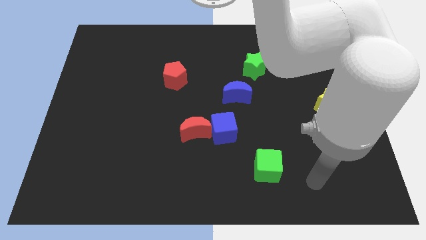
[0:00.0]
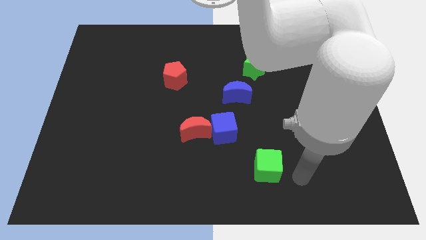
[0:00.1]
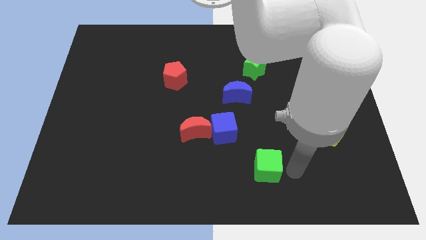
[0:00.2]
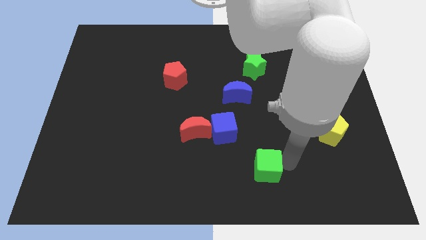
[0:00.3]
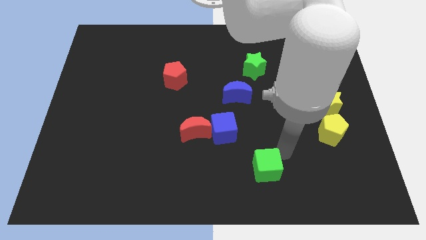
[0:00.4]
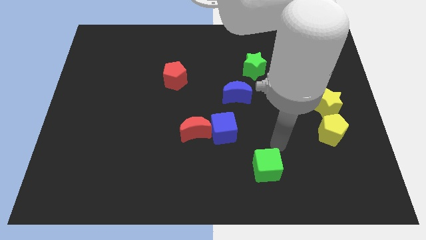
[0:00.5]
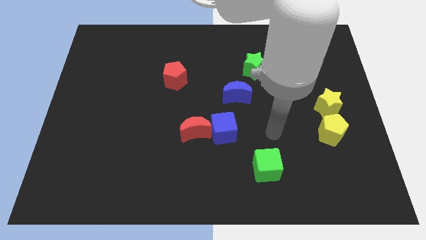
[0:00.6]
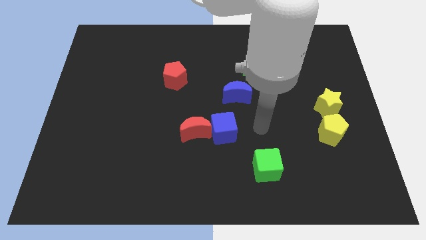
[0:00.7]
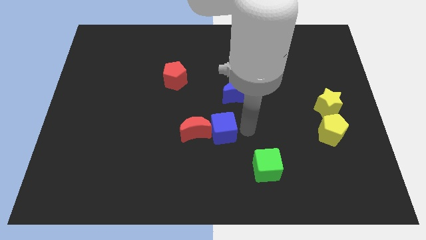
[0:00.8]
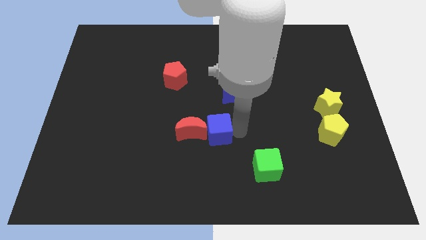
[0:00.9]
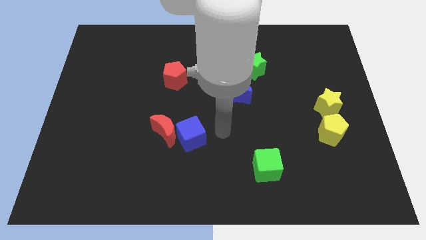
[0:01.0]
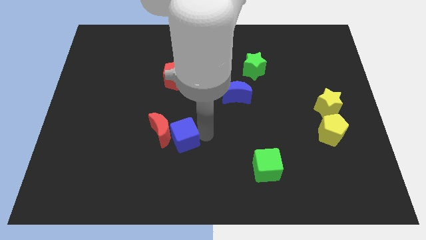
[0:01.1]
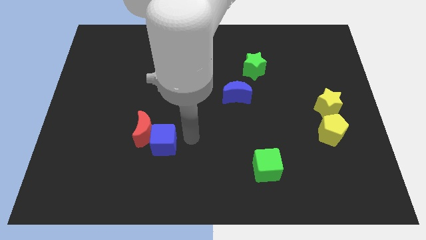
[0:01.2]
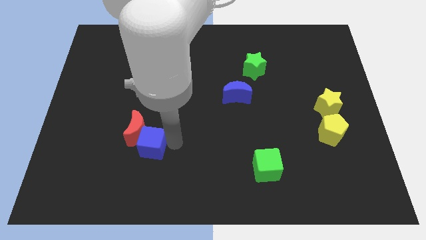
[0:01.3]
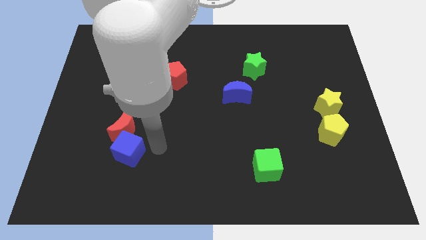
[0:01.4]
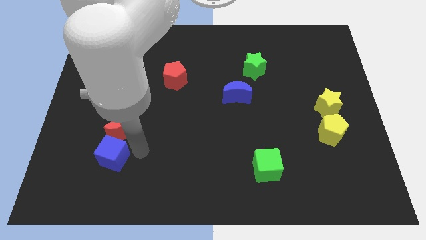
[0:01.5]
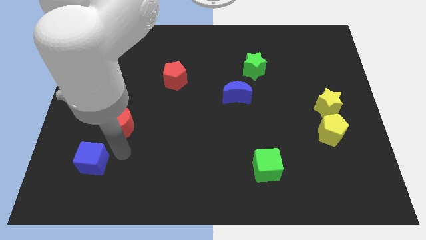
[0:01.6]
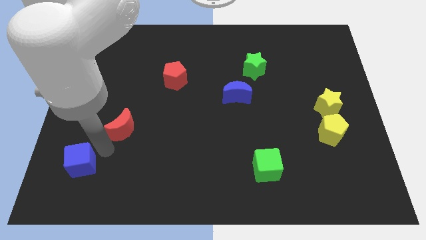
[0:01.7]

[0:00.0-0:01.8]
move the red moon away from the blue cube

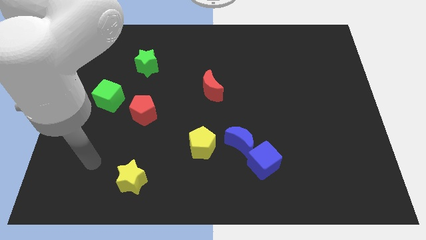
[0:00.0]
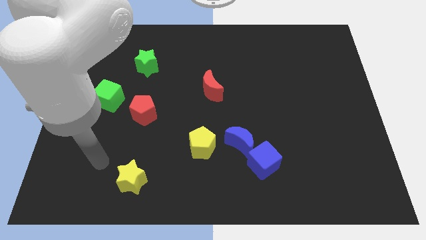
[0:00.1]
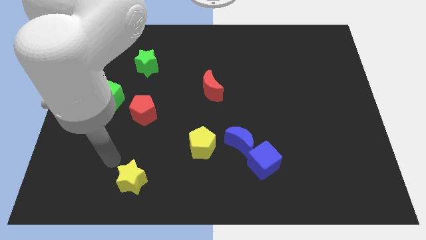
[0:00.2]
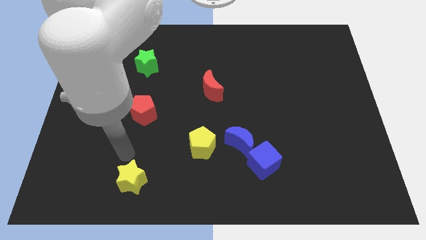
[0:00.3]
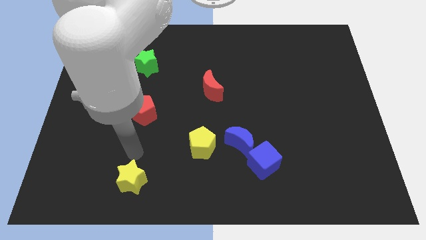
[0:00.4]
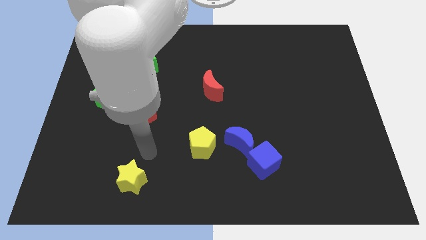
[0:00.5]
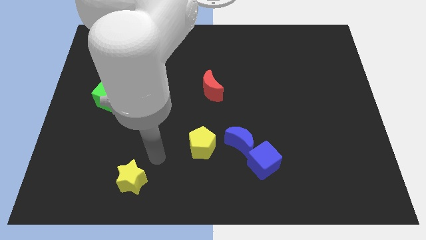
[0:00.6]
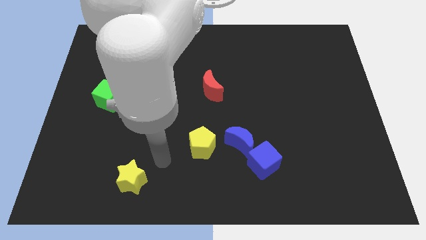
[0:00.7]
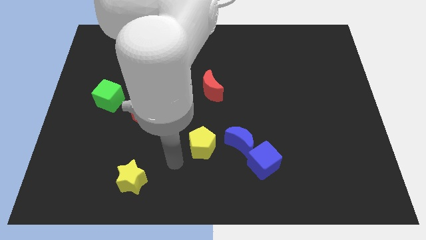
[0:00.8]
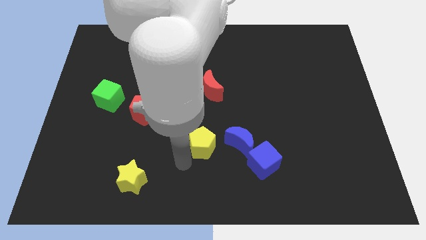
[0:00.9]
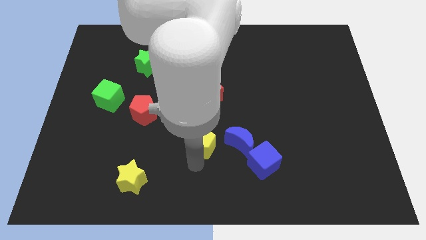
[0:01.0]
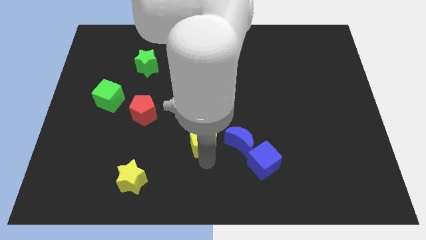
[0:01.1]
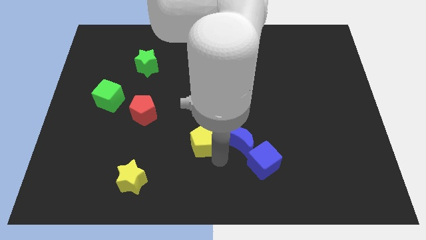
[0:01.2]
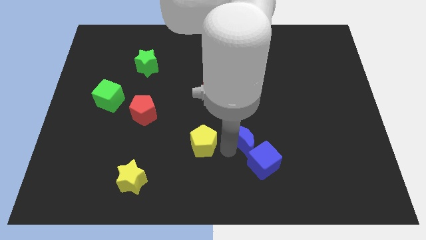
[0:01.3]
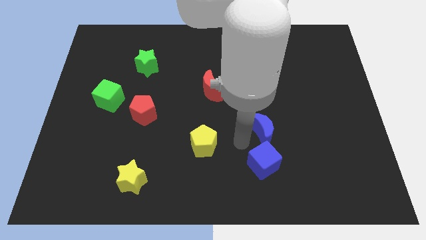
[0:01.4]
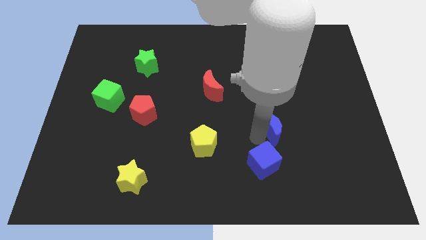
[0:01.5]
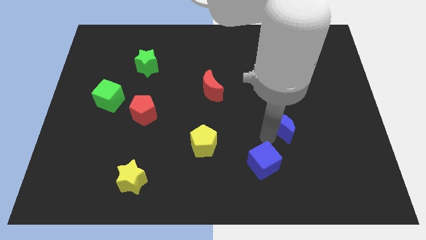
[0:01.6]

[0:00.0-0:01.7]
pull the blue cube apart from the blue moon

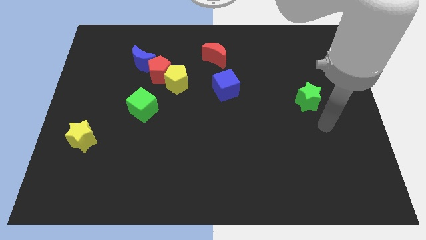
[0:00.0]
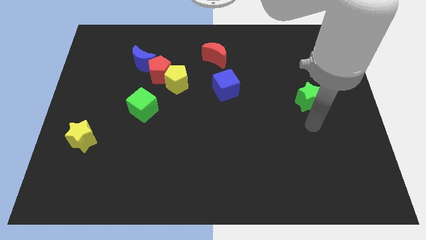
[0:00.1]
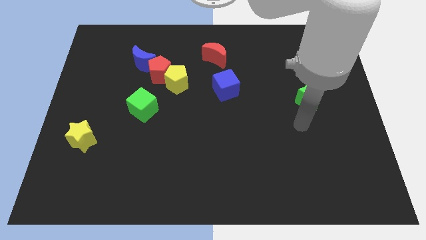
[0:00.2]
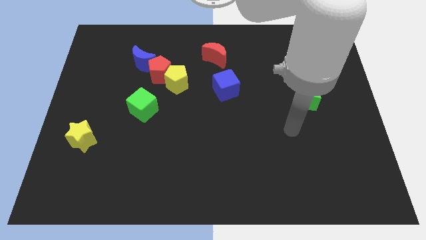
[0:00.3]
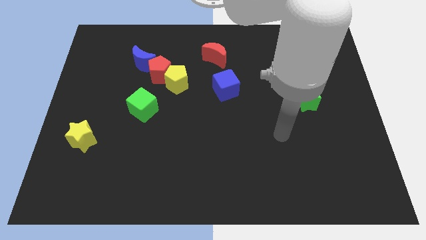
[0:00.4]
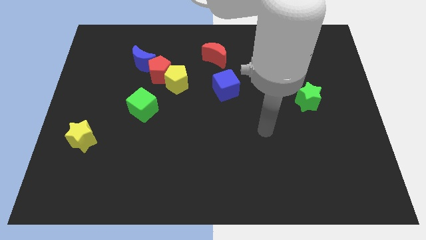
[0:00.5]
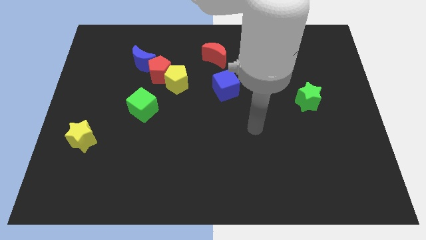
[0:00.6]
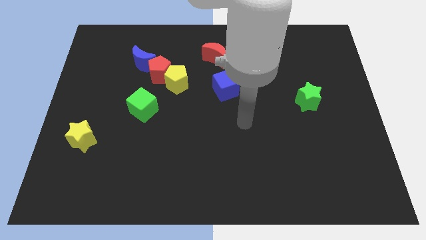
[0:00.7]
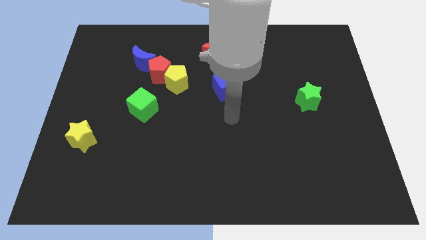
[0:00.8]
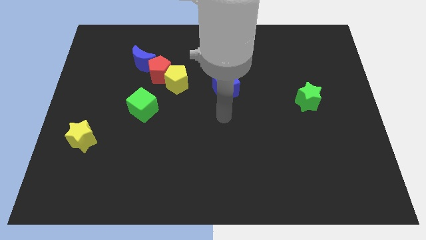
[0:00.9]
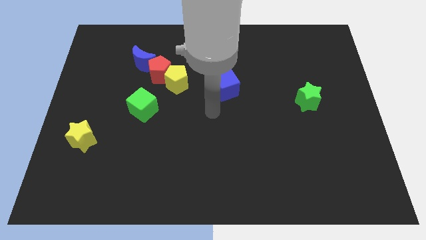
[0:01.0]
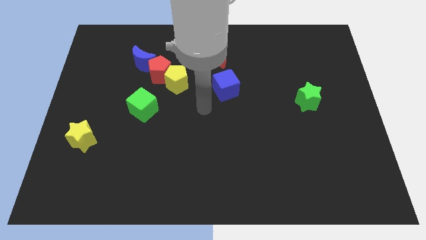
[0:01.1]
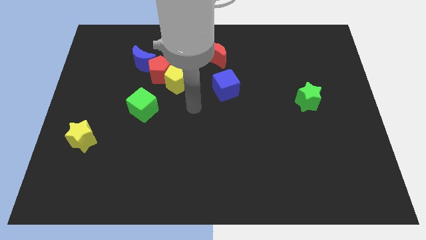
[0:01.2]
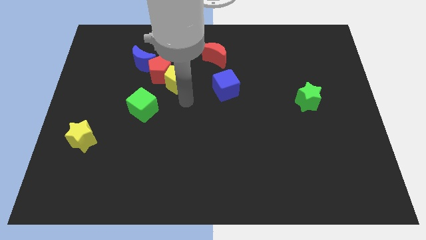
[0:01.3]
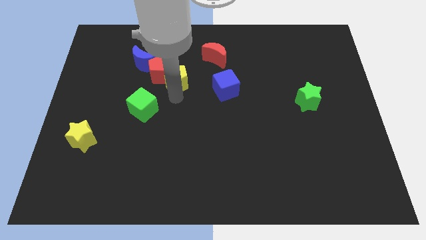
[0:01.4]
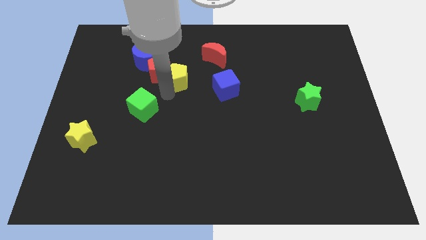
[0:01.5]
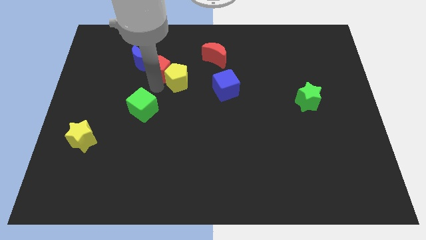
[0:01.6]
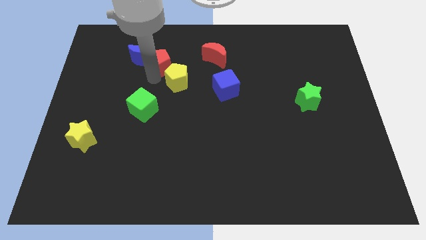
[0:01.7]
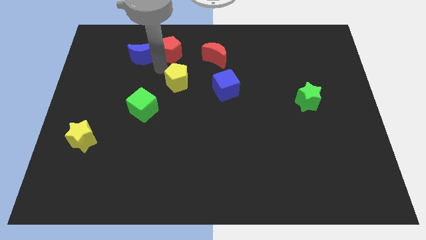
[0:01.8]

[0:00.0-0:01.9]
separate the yellow pentagon from the red pentagon

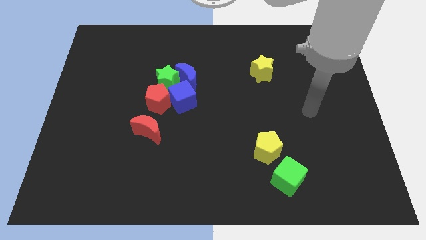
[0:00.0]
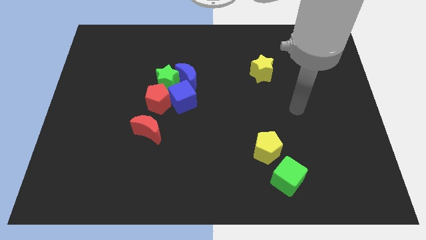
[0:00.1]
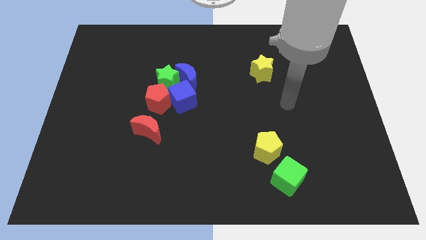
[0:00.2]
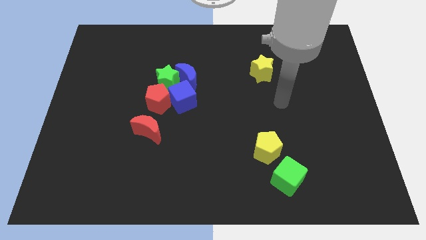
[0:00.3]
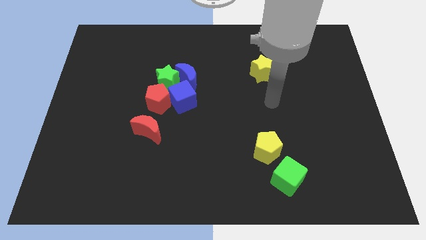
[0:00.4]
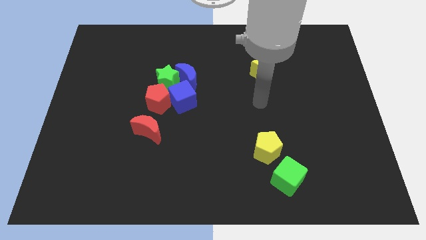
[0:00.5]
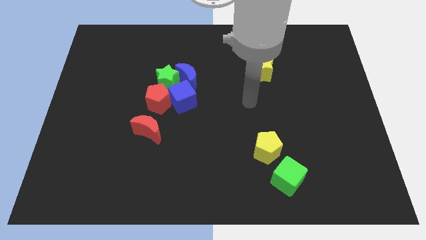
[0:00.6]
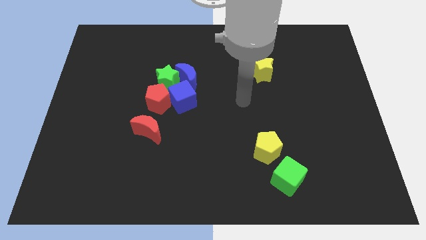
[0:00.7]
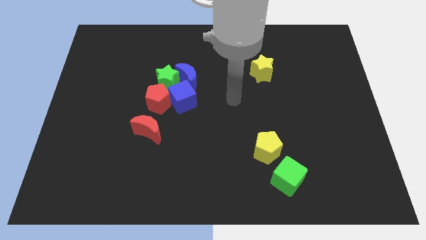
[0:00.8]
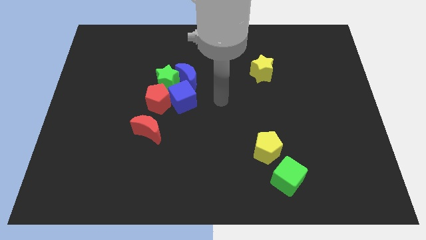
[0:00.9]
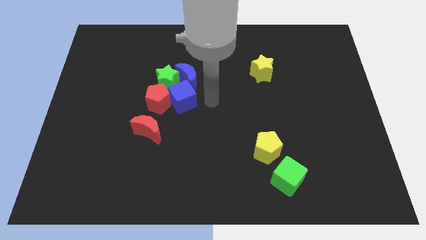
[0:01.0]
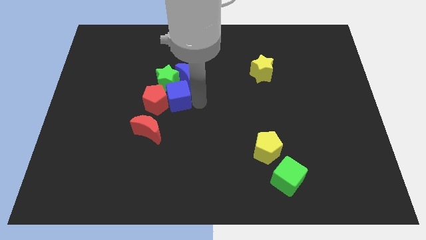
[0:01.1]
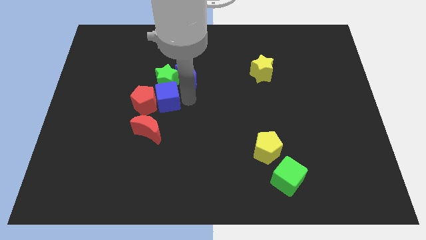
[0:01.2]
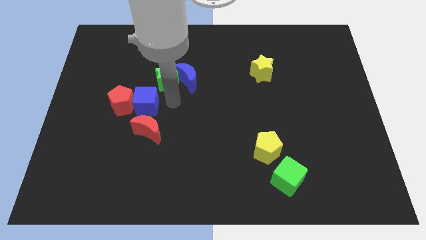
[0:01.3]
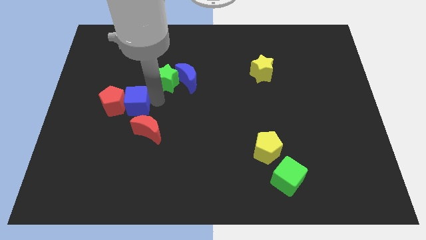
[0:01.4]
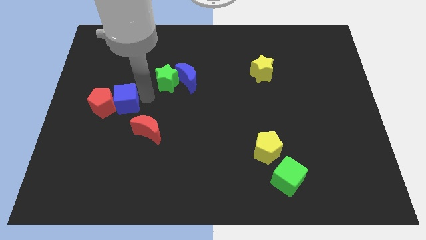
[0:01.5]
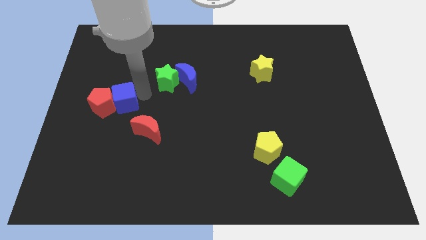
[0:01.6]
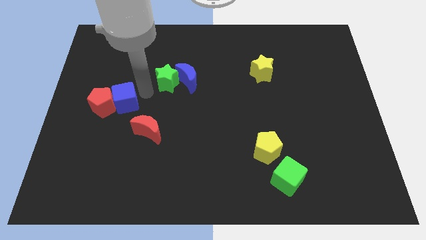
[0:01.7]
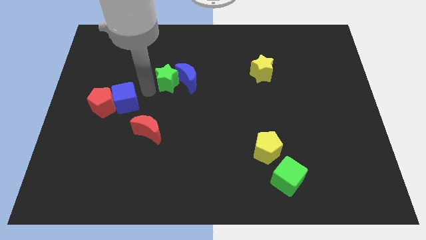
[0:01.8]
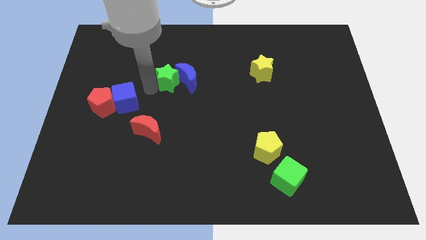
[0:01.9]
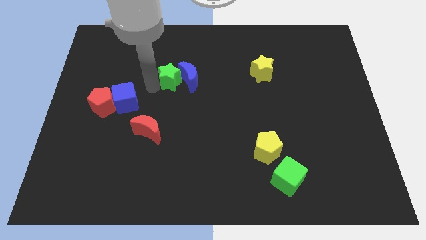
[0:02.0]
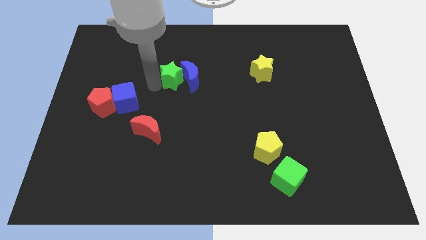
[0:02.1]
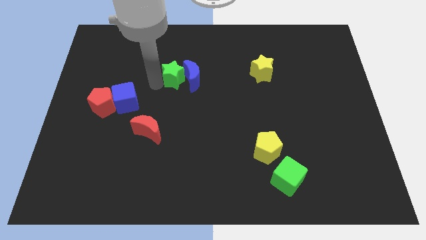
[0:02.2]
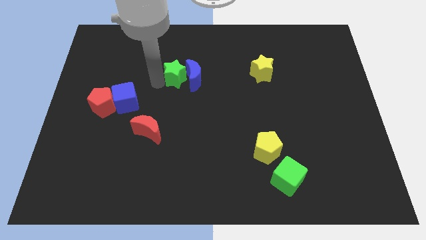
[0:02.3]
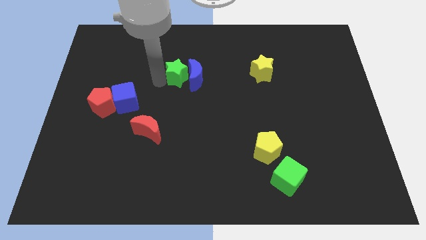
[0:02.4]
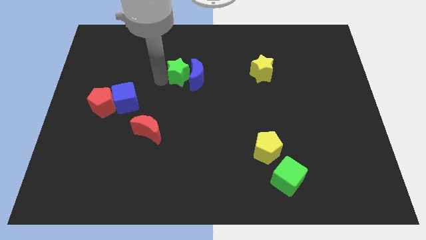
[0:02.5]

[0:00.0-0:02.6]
move the green star away from the group of blocks

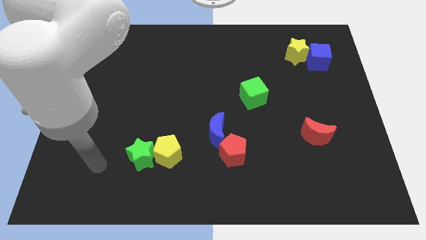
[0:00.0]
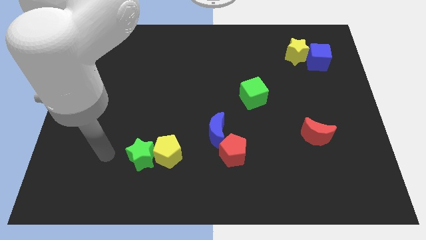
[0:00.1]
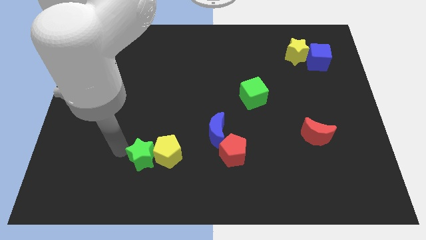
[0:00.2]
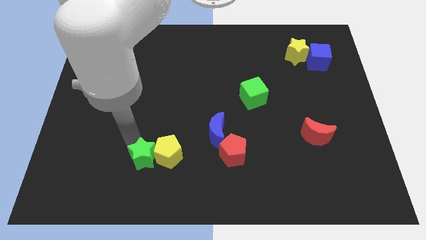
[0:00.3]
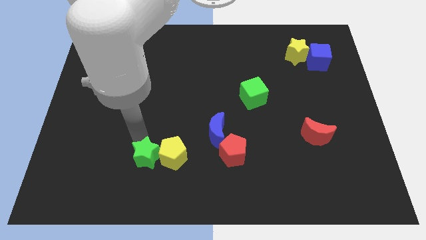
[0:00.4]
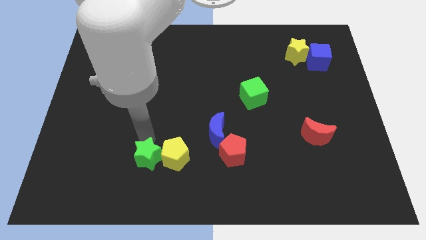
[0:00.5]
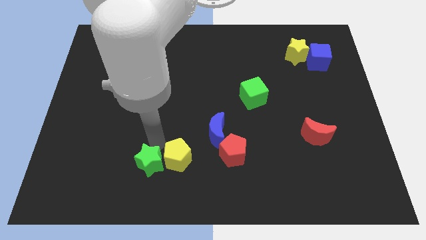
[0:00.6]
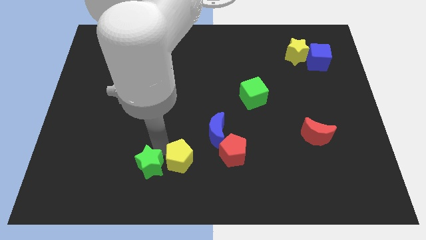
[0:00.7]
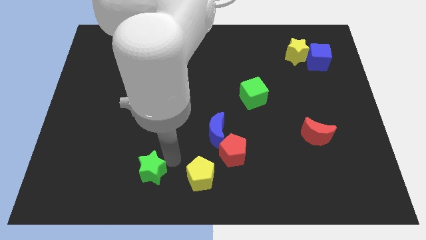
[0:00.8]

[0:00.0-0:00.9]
pull the green star apart from the yellow pentagon

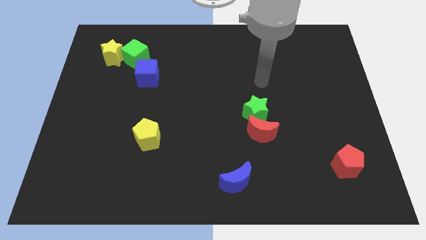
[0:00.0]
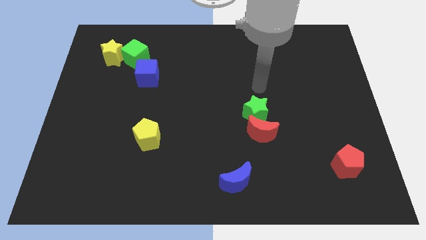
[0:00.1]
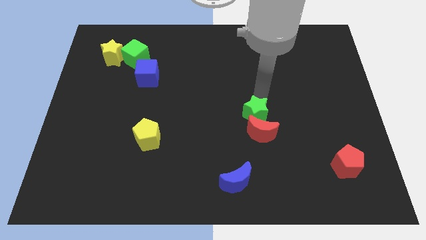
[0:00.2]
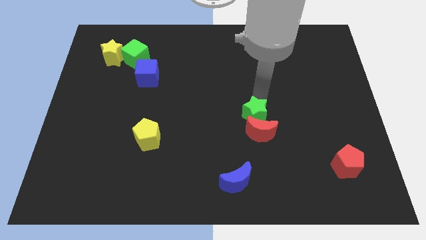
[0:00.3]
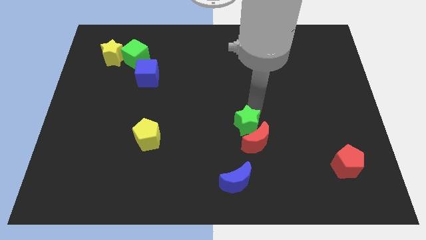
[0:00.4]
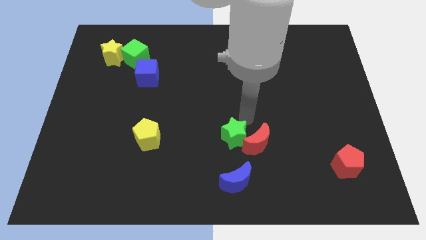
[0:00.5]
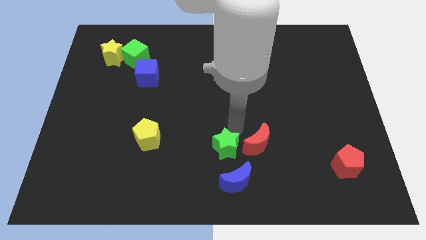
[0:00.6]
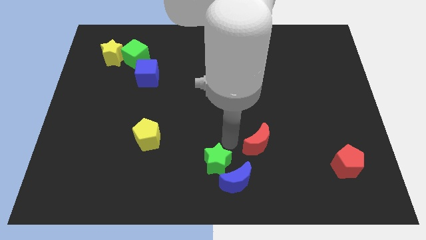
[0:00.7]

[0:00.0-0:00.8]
pull the red moon apart from the green star
